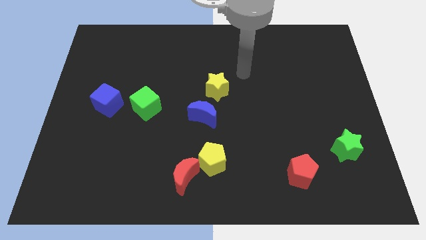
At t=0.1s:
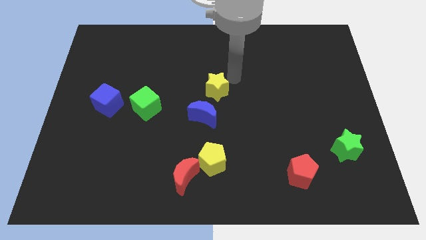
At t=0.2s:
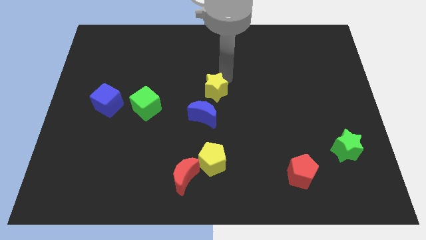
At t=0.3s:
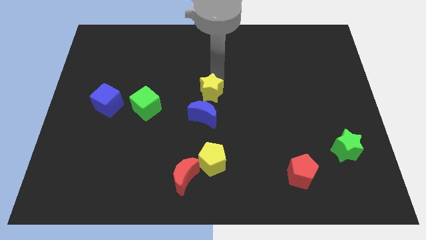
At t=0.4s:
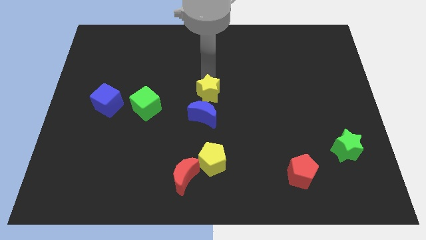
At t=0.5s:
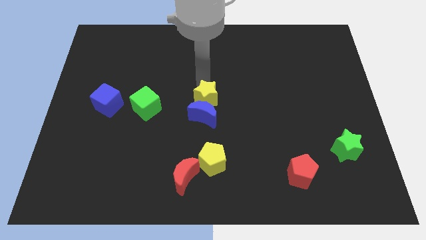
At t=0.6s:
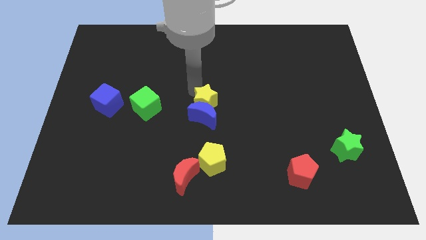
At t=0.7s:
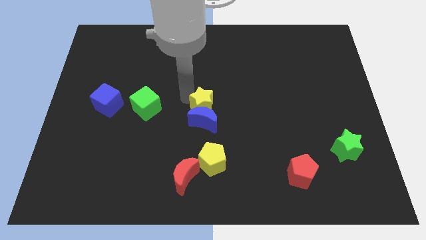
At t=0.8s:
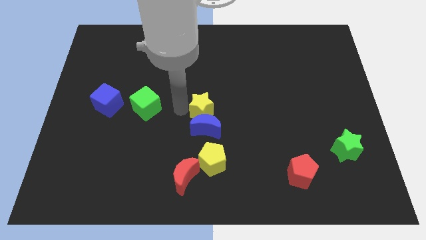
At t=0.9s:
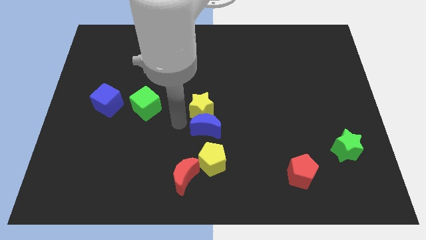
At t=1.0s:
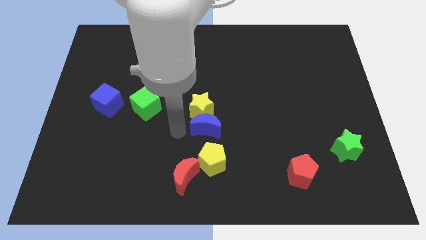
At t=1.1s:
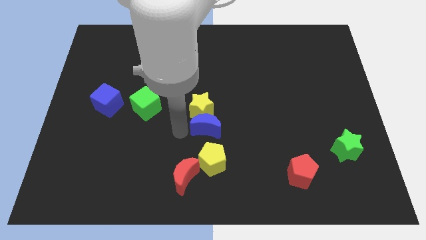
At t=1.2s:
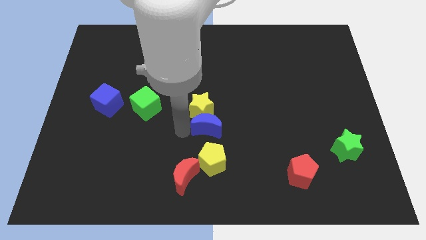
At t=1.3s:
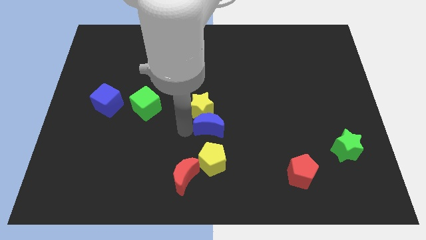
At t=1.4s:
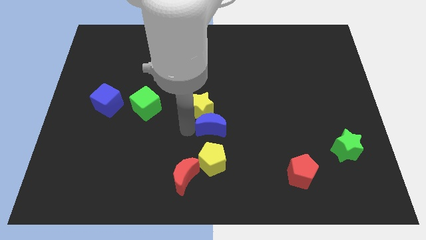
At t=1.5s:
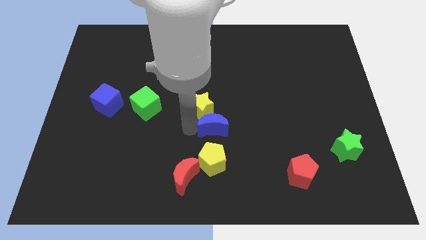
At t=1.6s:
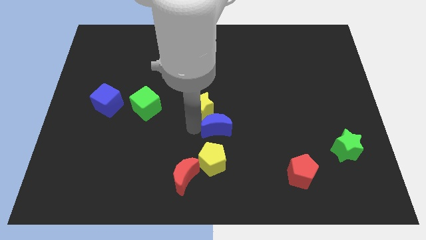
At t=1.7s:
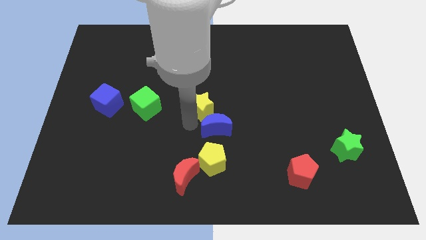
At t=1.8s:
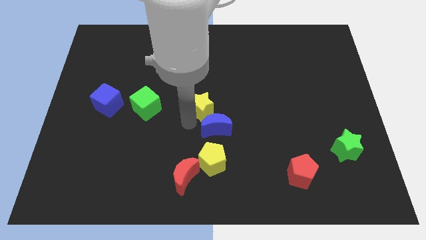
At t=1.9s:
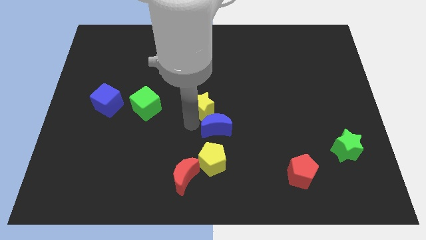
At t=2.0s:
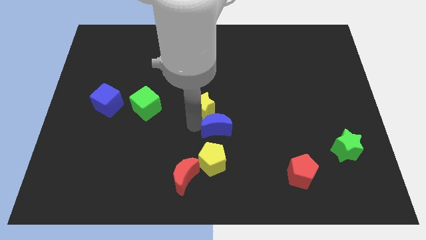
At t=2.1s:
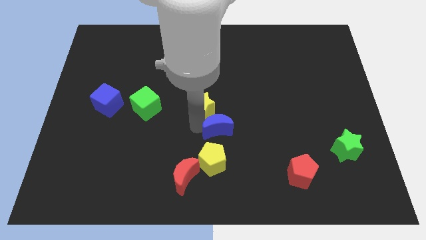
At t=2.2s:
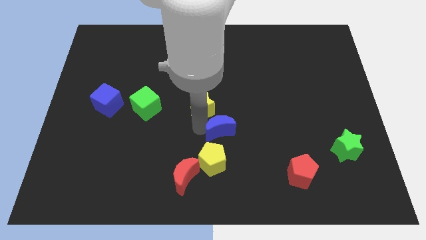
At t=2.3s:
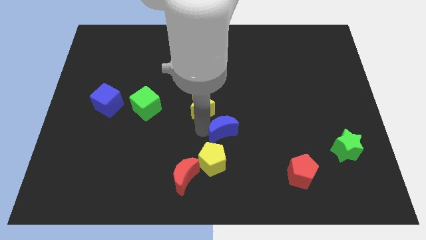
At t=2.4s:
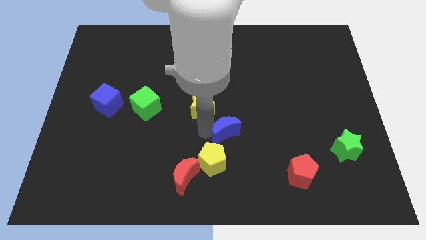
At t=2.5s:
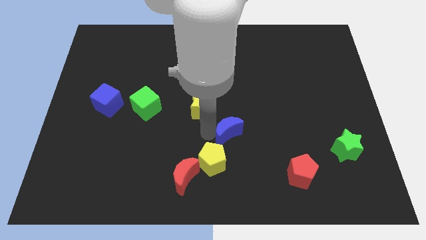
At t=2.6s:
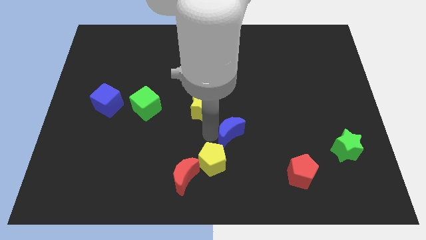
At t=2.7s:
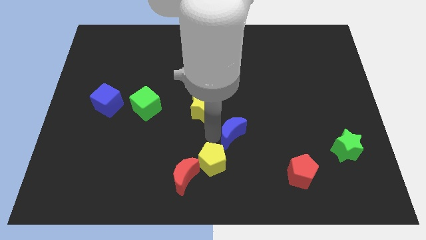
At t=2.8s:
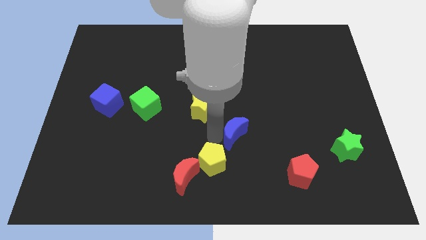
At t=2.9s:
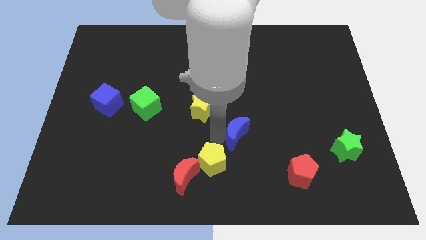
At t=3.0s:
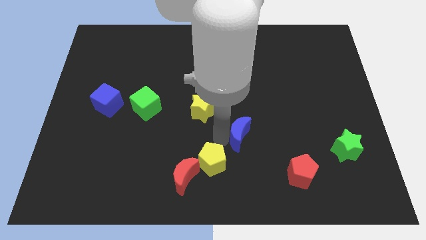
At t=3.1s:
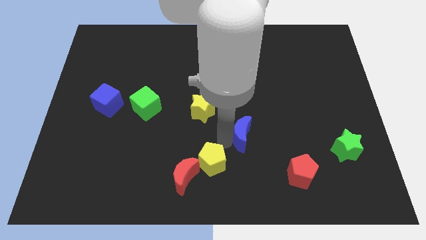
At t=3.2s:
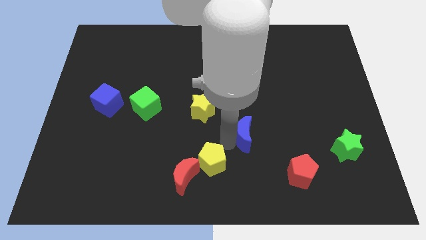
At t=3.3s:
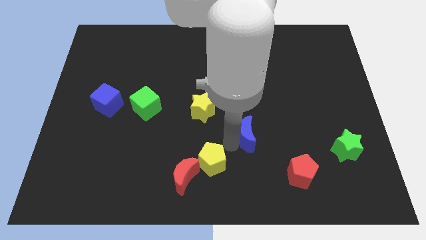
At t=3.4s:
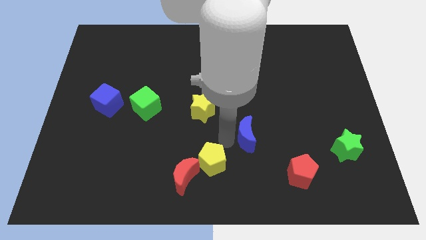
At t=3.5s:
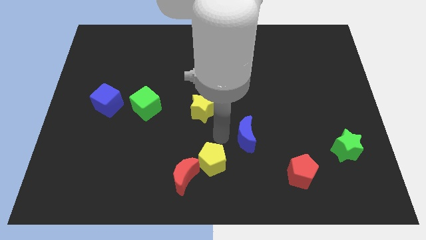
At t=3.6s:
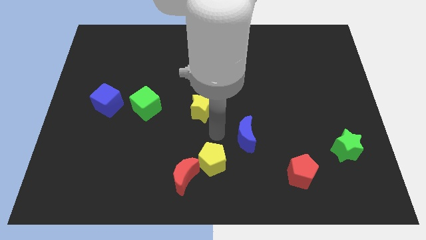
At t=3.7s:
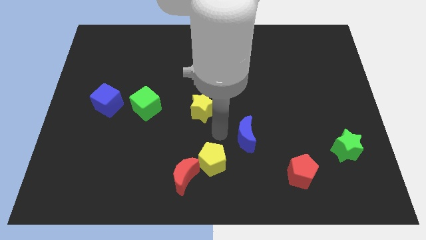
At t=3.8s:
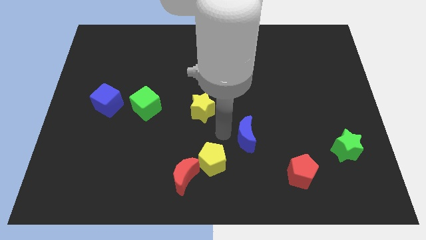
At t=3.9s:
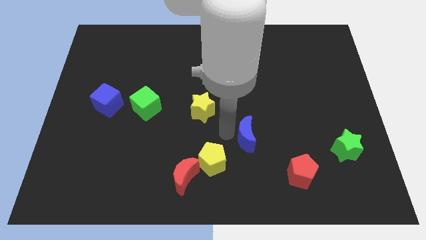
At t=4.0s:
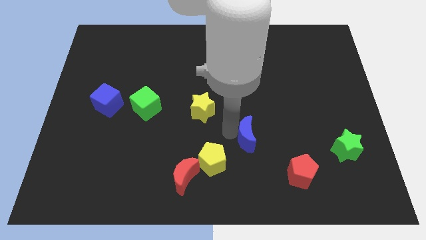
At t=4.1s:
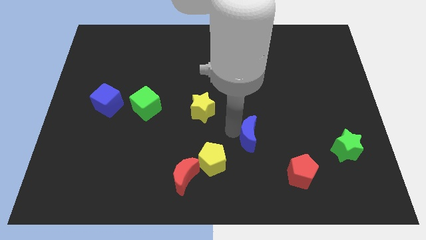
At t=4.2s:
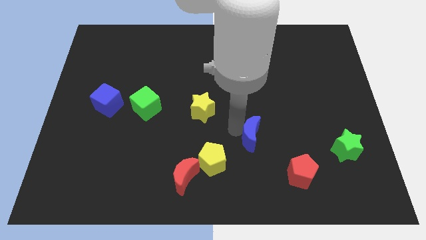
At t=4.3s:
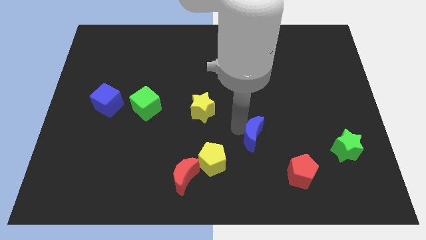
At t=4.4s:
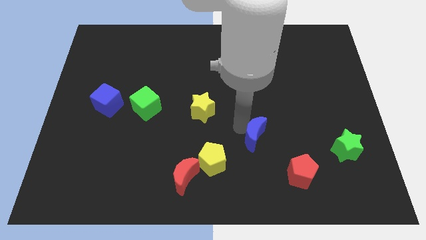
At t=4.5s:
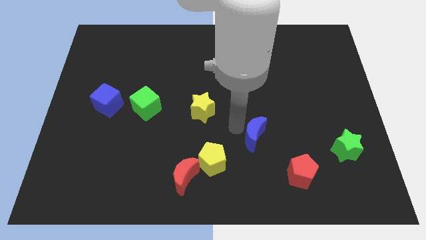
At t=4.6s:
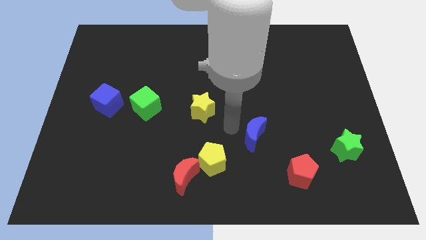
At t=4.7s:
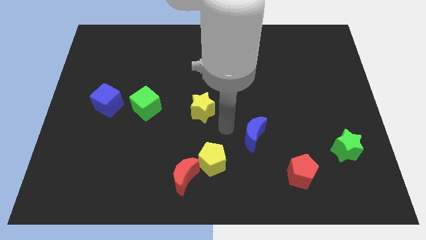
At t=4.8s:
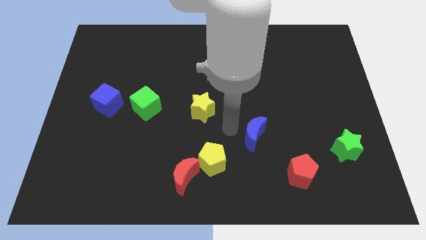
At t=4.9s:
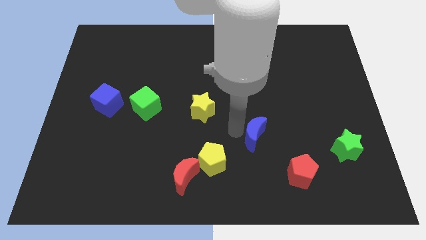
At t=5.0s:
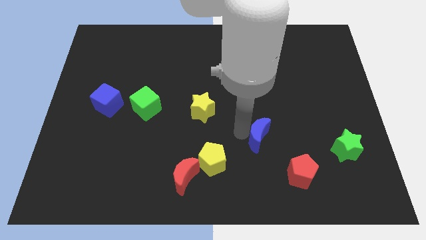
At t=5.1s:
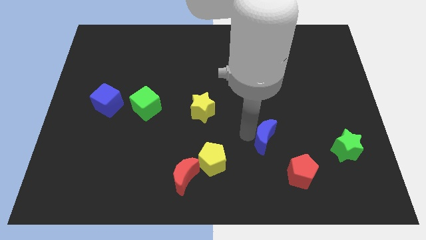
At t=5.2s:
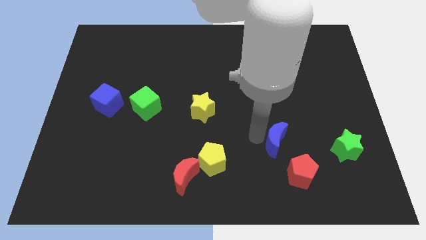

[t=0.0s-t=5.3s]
slide the blue moon to the left side of the green star
